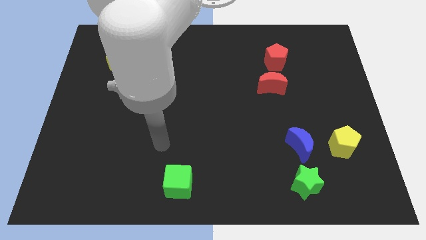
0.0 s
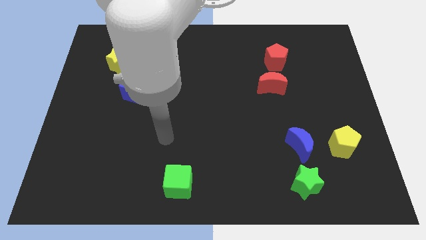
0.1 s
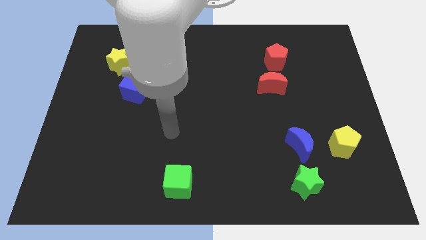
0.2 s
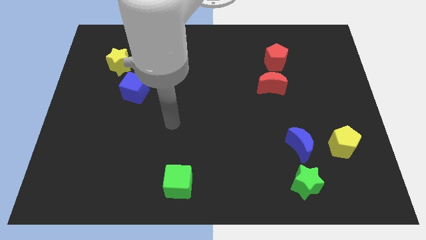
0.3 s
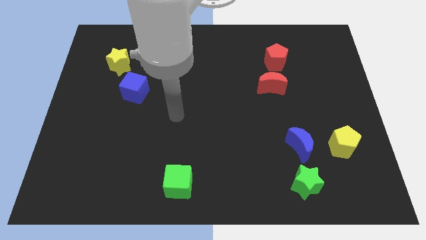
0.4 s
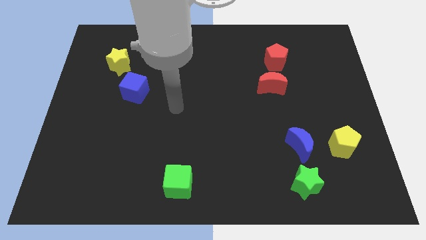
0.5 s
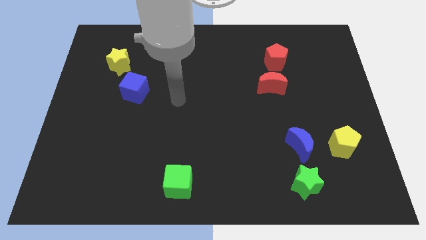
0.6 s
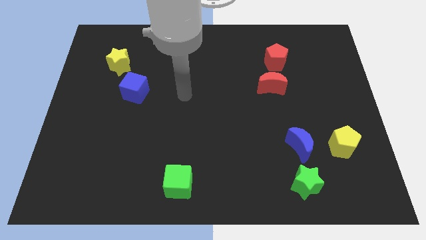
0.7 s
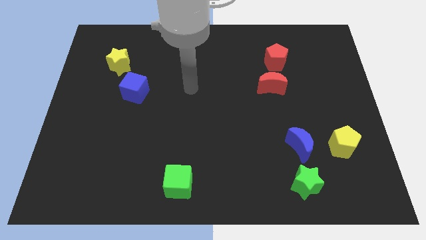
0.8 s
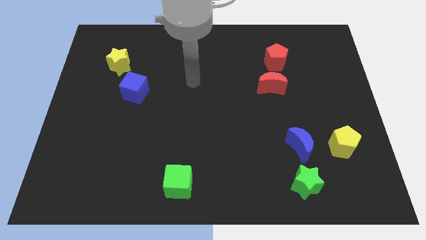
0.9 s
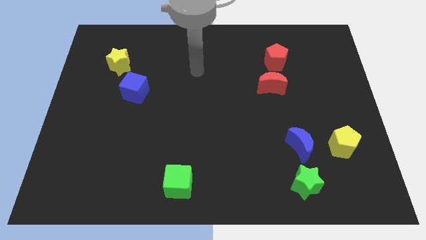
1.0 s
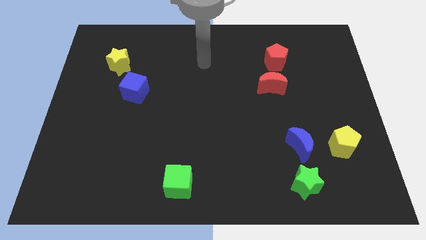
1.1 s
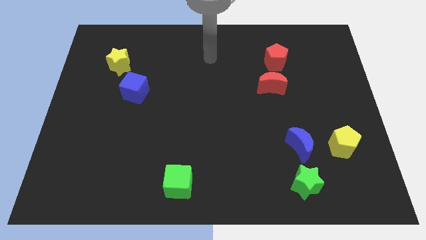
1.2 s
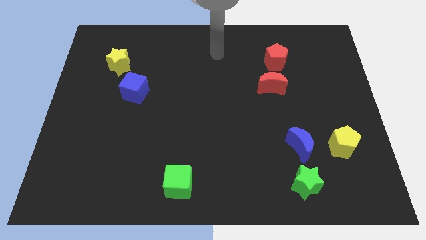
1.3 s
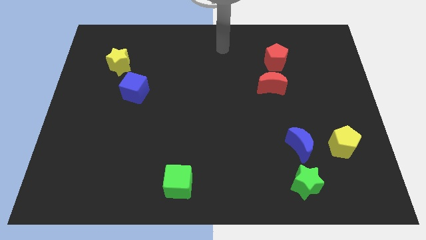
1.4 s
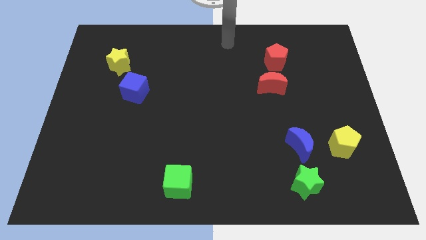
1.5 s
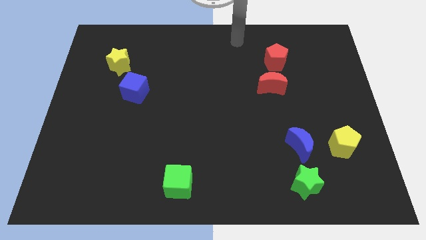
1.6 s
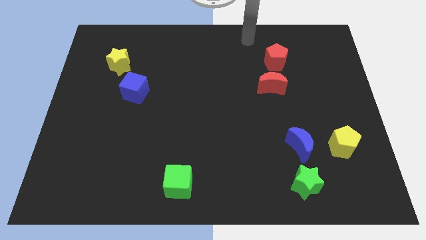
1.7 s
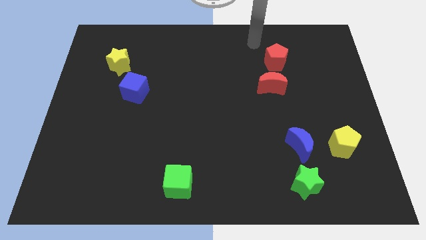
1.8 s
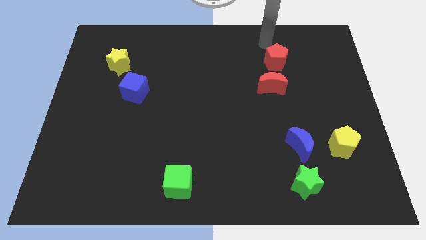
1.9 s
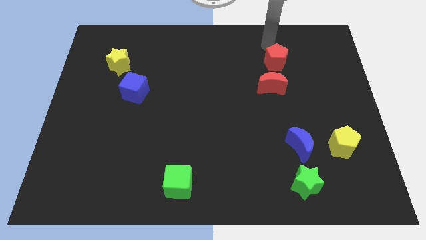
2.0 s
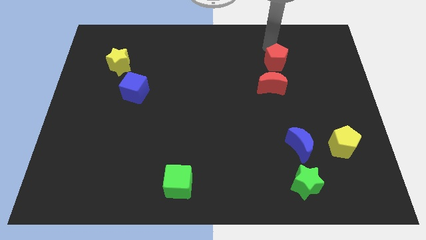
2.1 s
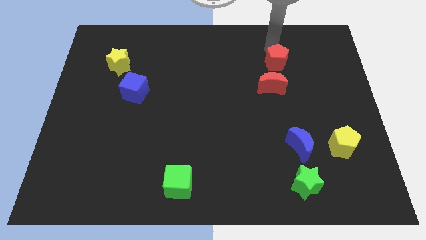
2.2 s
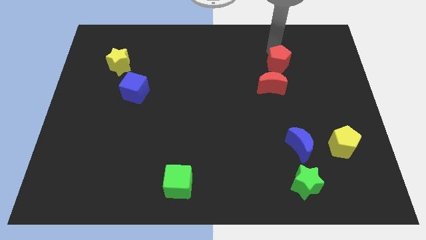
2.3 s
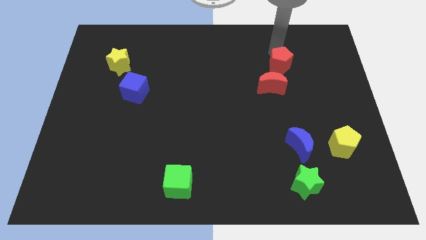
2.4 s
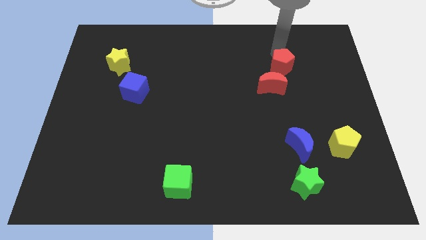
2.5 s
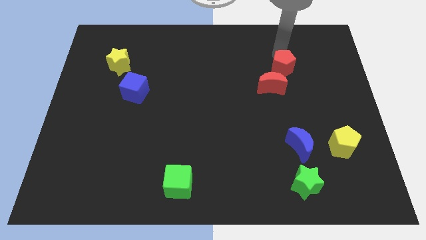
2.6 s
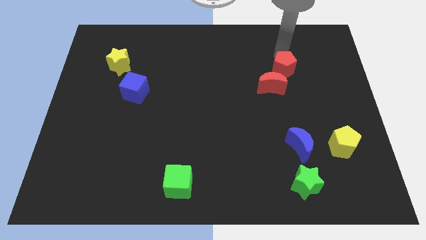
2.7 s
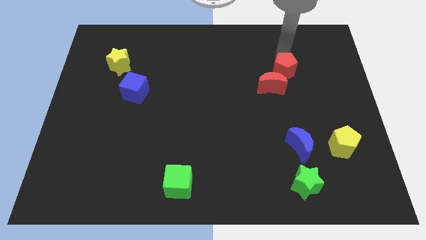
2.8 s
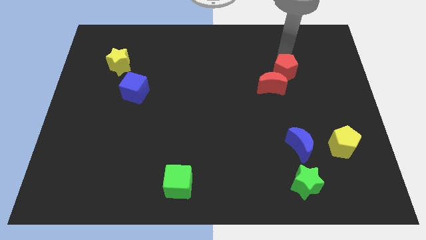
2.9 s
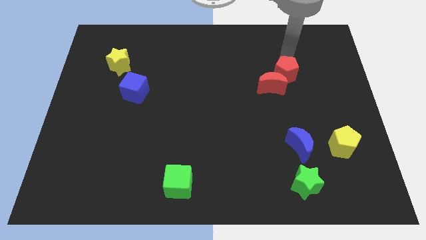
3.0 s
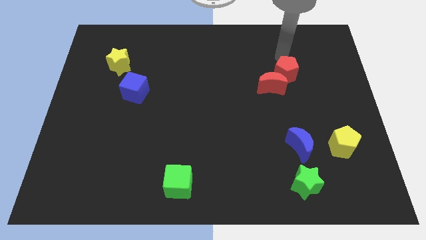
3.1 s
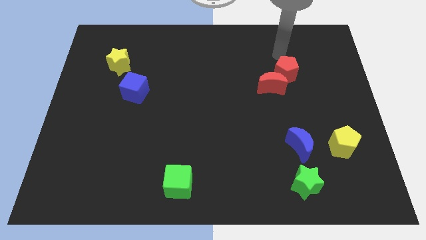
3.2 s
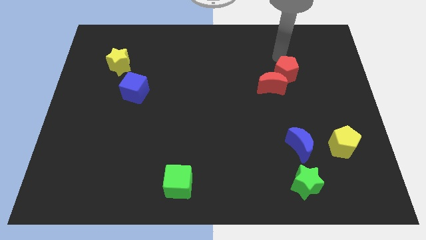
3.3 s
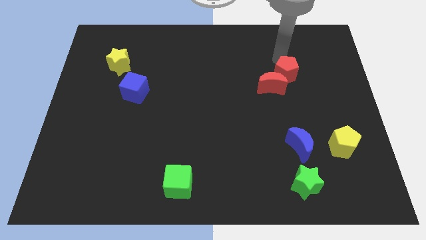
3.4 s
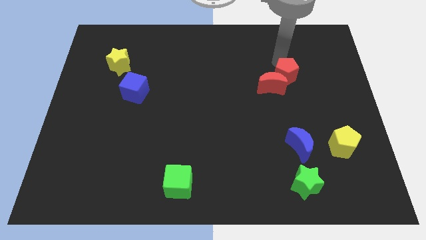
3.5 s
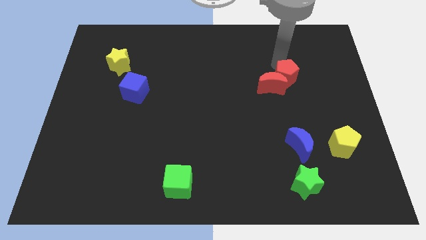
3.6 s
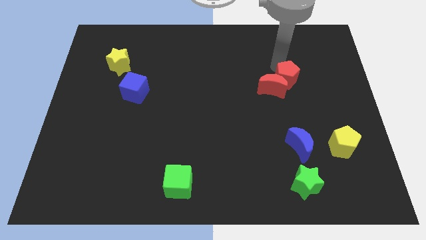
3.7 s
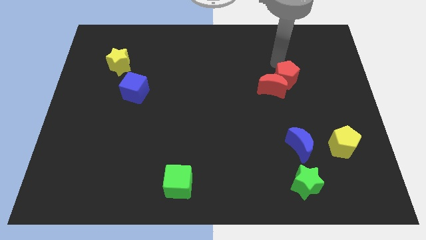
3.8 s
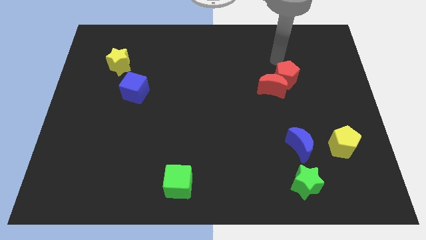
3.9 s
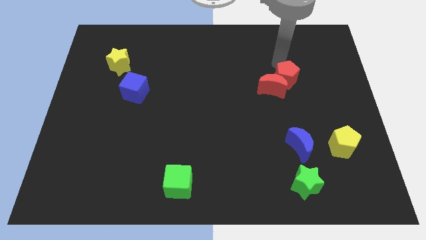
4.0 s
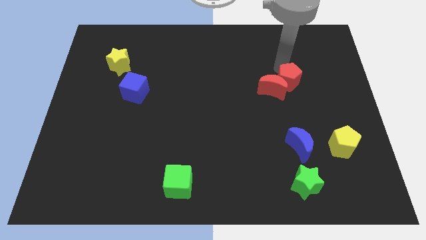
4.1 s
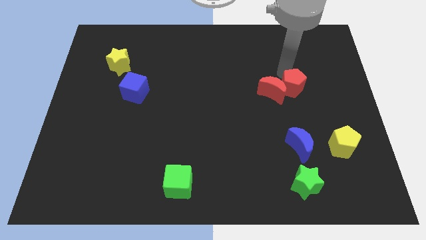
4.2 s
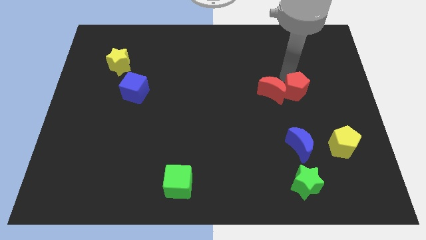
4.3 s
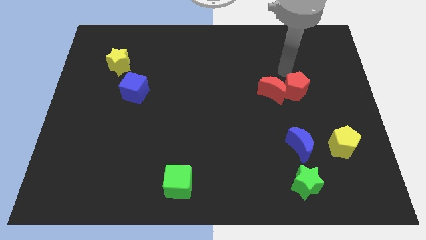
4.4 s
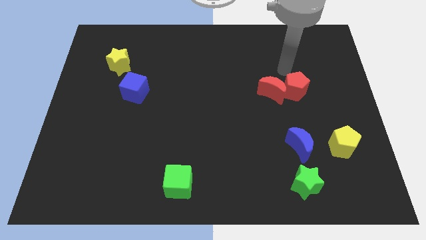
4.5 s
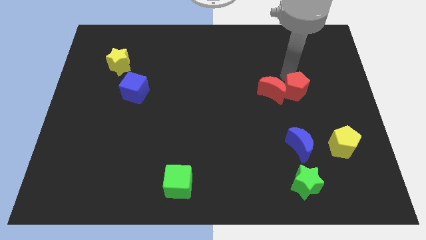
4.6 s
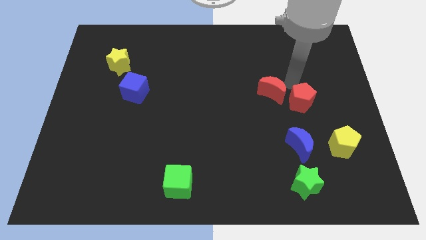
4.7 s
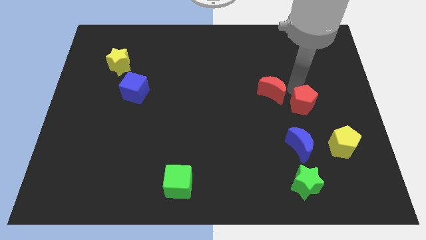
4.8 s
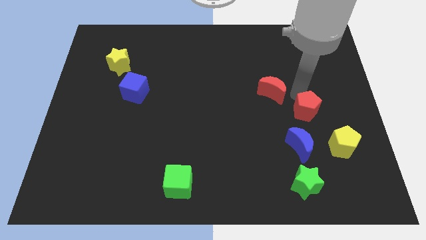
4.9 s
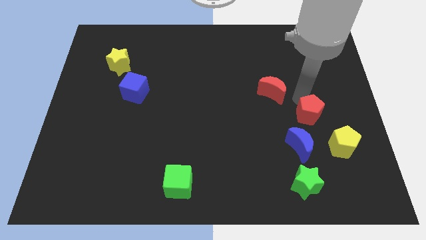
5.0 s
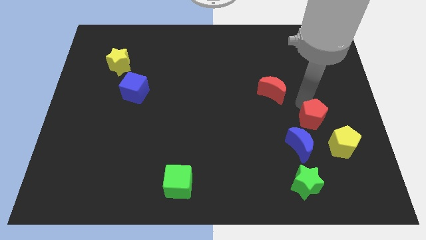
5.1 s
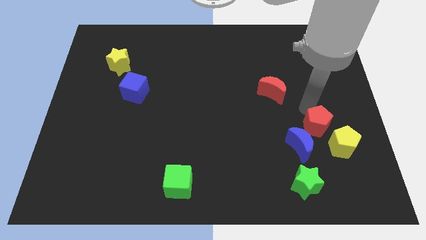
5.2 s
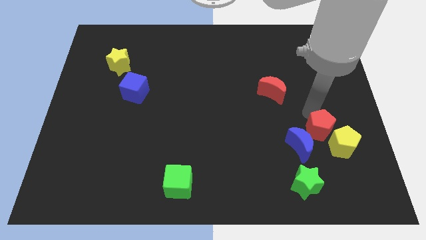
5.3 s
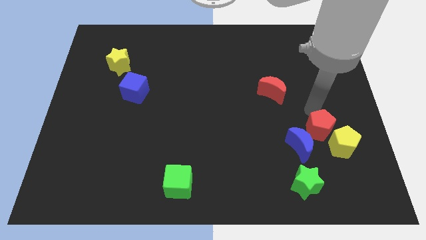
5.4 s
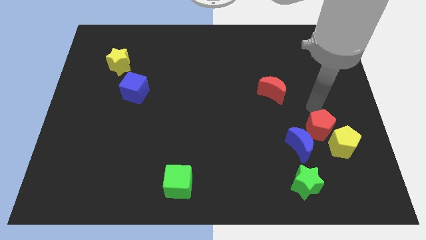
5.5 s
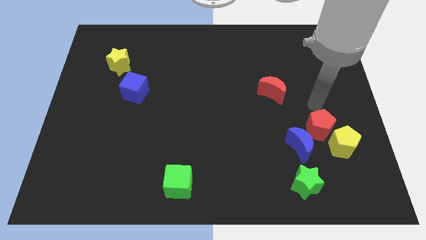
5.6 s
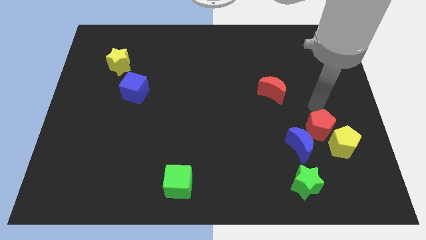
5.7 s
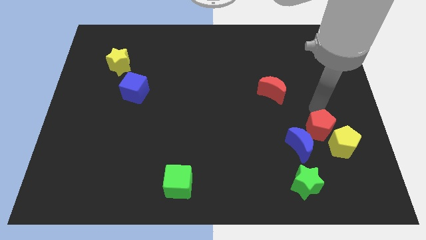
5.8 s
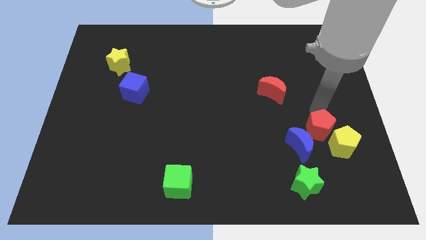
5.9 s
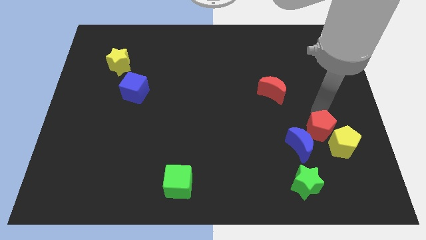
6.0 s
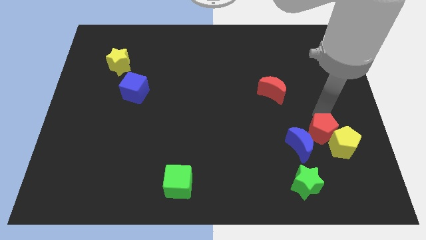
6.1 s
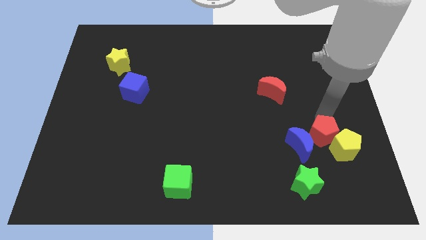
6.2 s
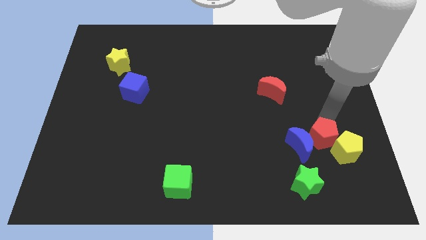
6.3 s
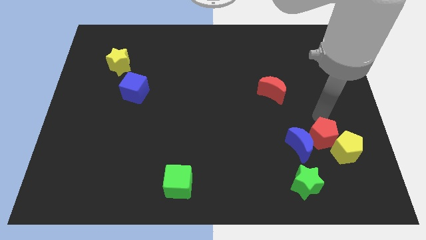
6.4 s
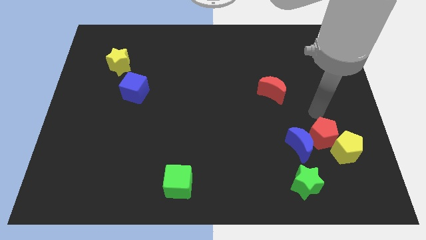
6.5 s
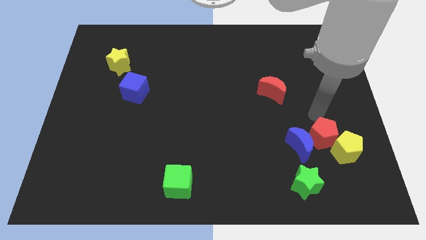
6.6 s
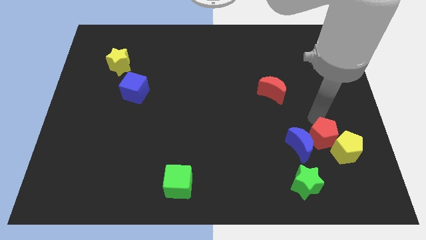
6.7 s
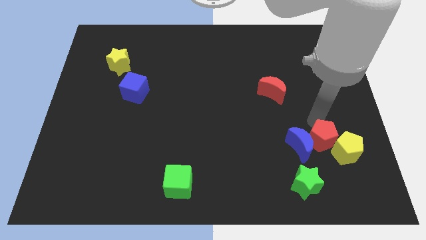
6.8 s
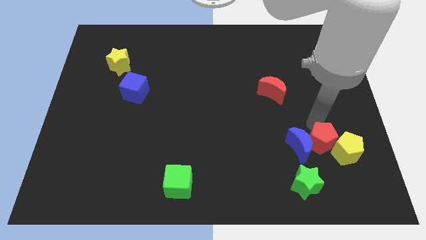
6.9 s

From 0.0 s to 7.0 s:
put the red pentagon diagonally down and to the right of the blue moon

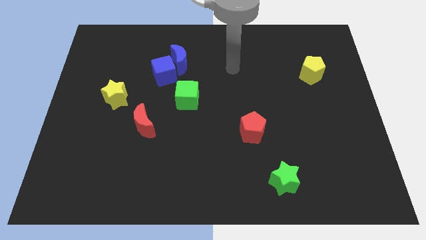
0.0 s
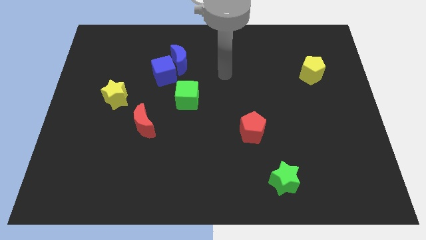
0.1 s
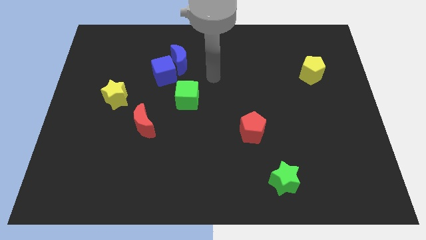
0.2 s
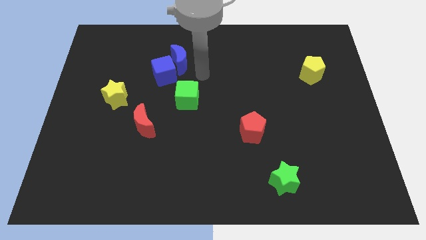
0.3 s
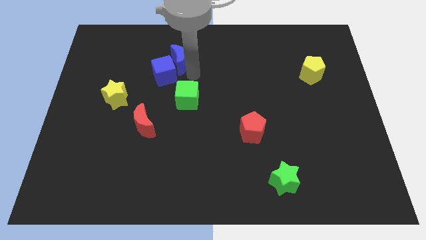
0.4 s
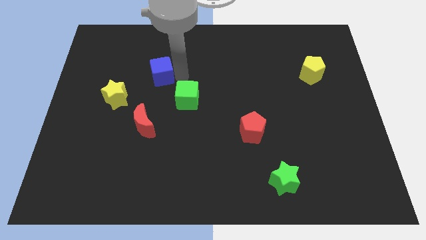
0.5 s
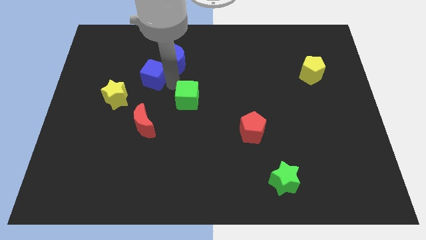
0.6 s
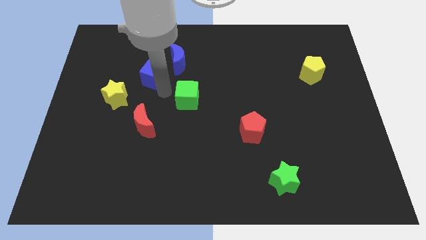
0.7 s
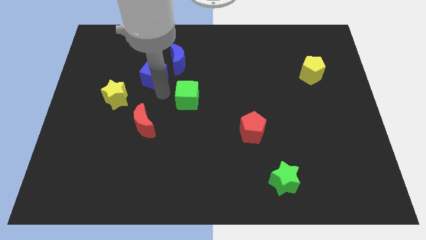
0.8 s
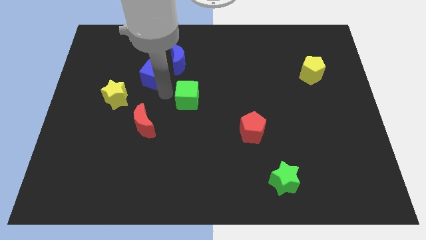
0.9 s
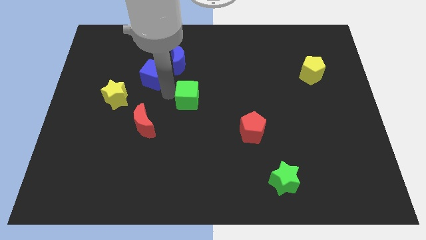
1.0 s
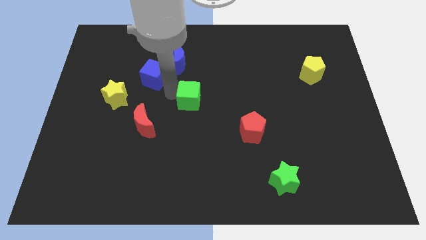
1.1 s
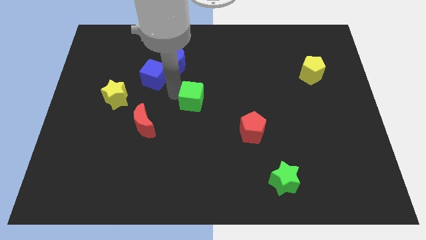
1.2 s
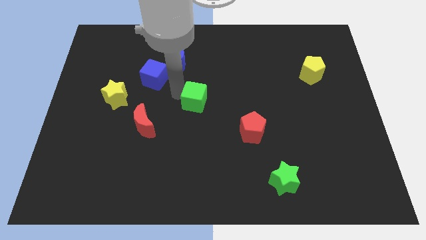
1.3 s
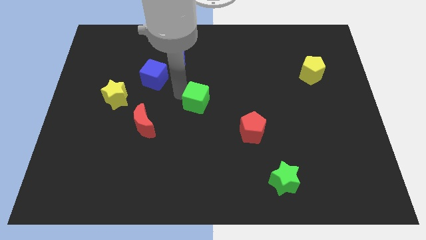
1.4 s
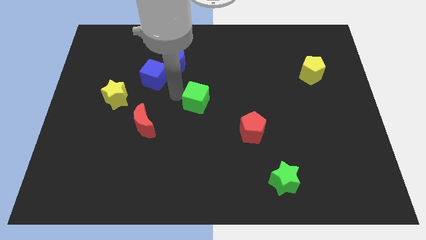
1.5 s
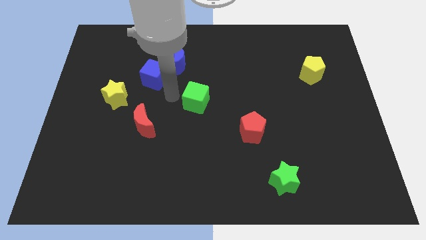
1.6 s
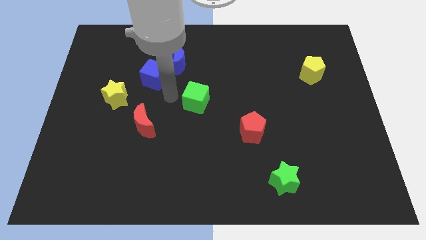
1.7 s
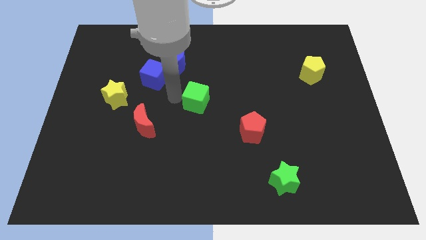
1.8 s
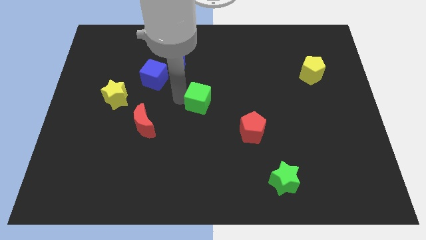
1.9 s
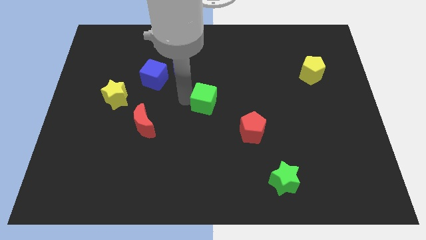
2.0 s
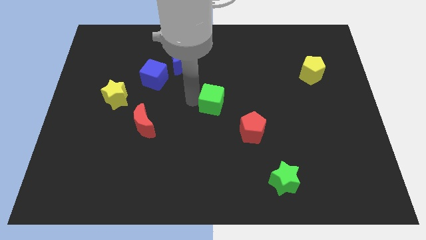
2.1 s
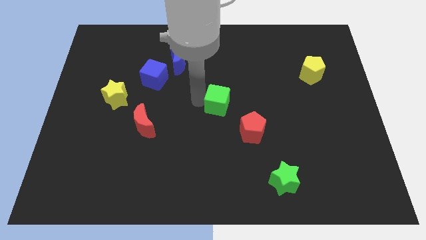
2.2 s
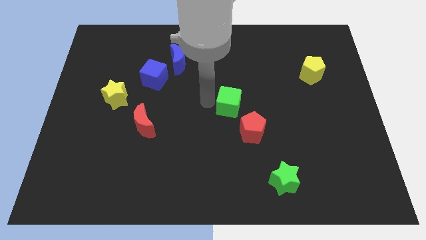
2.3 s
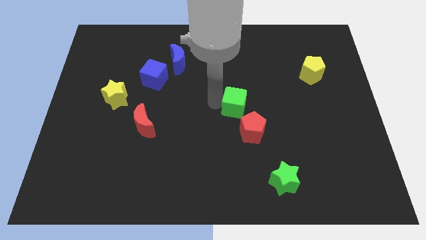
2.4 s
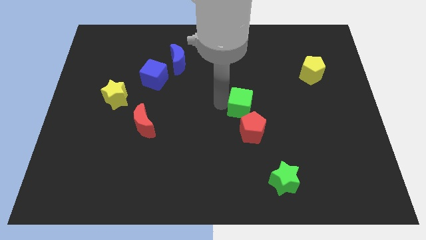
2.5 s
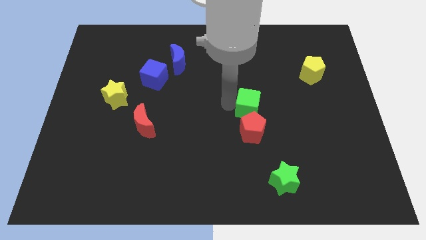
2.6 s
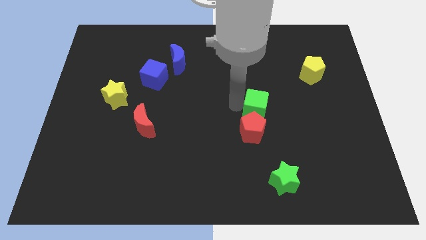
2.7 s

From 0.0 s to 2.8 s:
slide the green cube to the top right of the red pentagon
